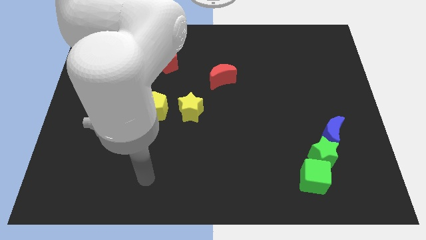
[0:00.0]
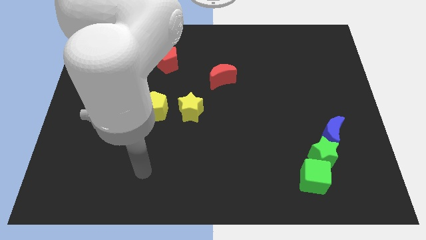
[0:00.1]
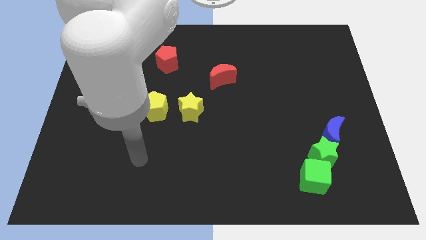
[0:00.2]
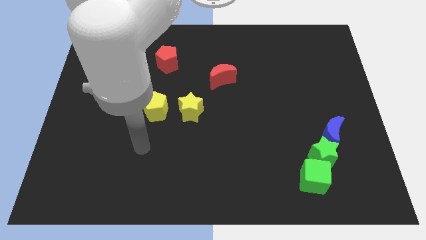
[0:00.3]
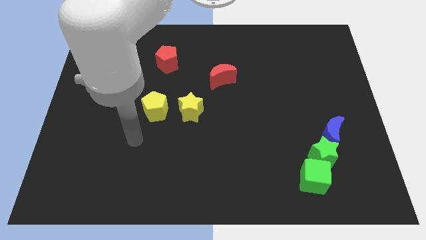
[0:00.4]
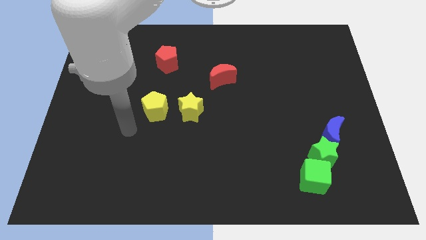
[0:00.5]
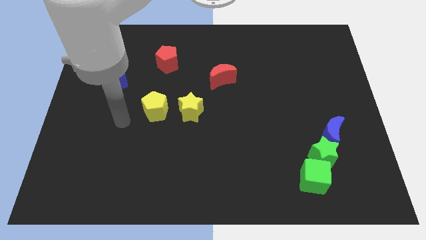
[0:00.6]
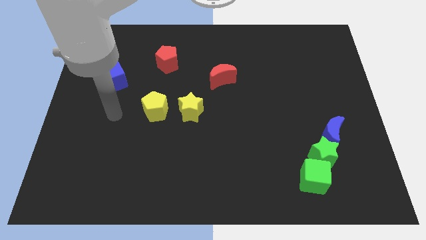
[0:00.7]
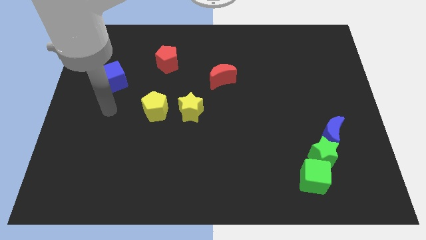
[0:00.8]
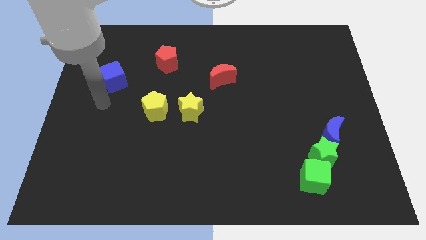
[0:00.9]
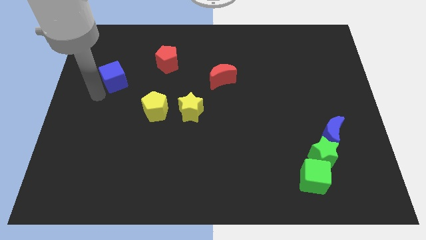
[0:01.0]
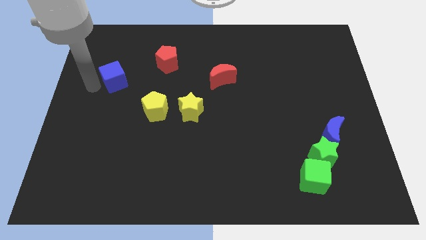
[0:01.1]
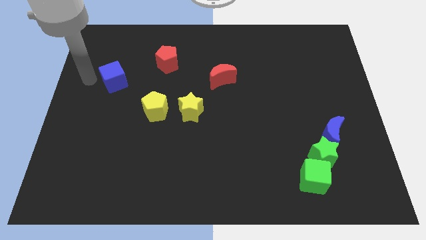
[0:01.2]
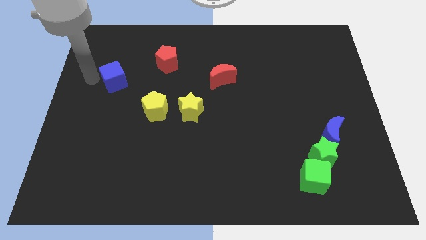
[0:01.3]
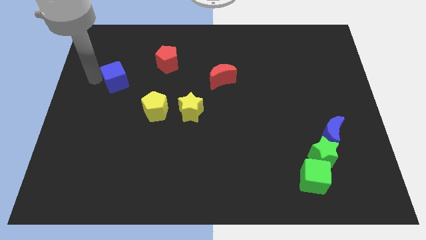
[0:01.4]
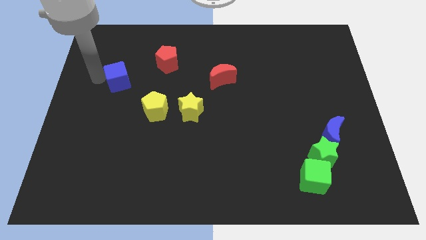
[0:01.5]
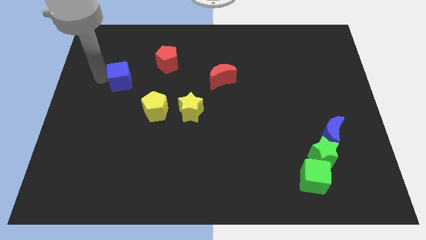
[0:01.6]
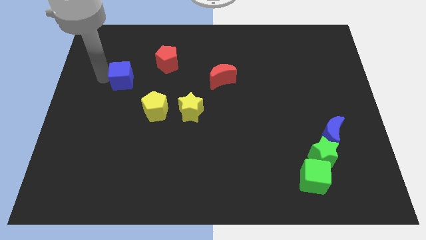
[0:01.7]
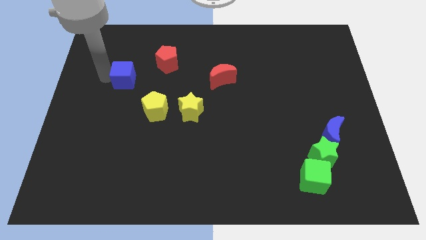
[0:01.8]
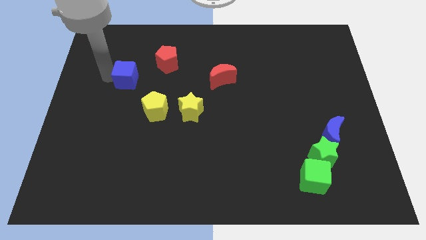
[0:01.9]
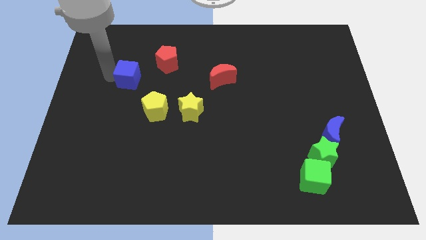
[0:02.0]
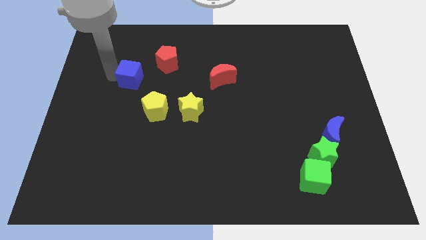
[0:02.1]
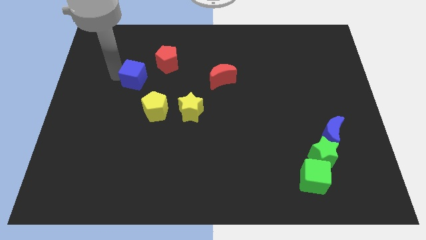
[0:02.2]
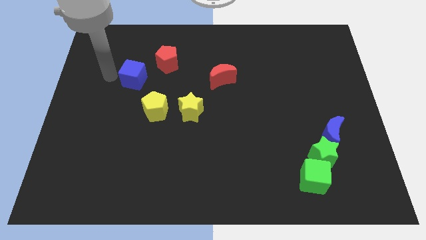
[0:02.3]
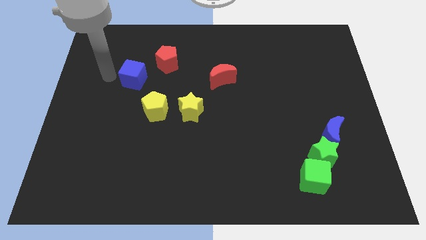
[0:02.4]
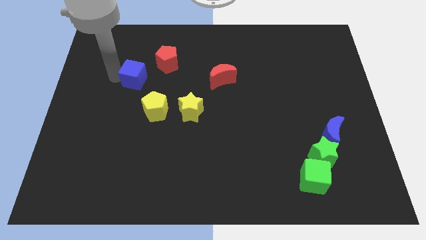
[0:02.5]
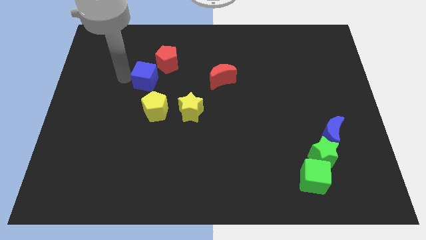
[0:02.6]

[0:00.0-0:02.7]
slide the blue cube a little to the right

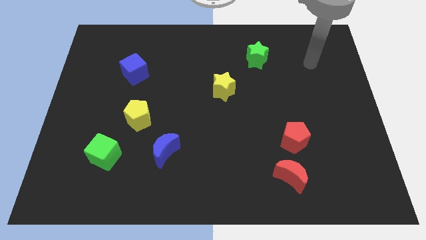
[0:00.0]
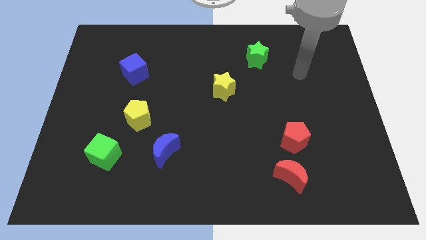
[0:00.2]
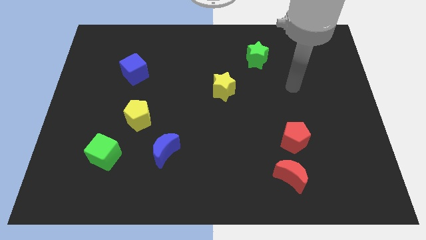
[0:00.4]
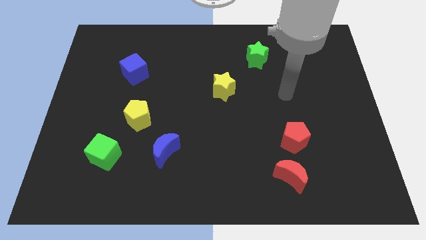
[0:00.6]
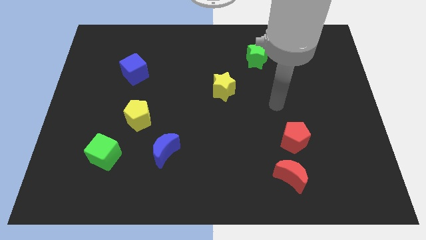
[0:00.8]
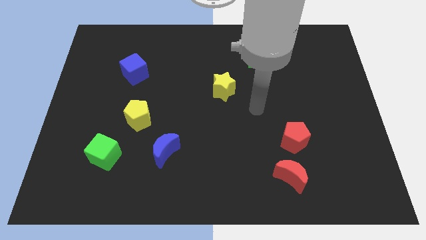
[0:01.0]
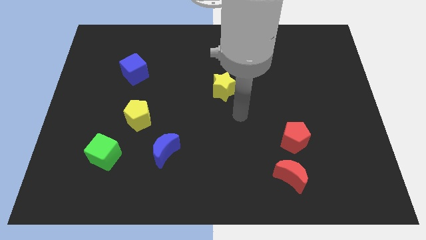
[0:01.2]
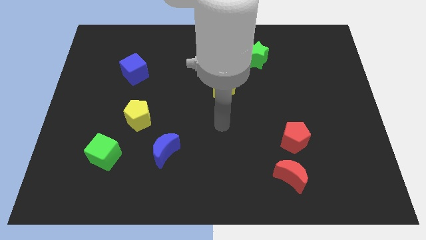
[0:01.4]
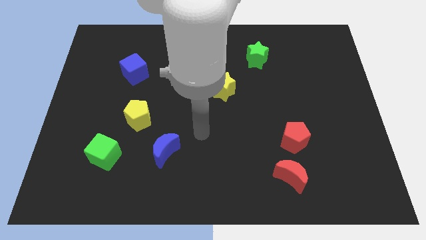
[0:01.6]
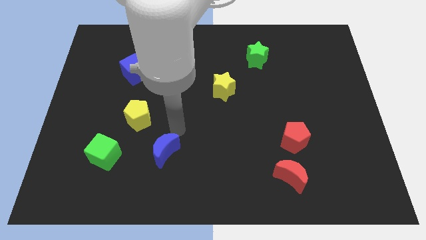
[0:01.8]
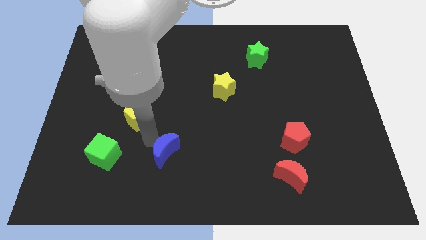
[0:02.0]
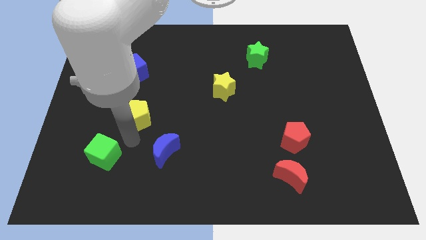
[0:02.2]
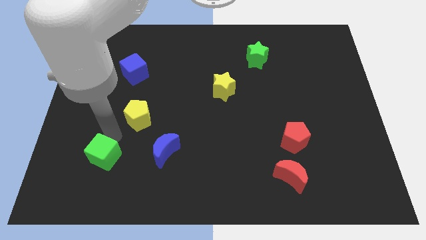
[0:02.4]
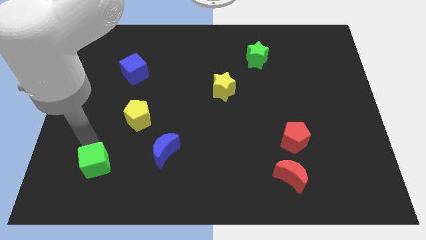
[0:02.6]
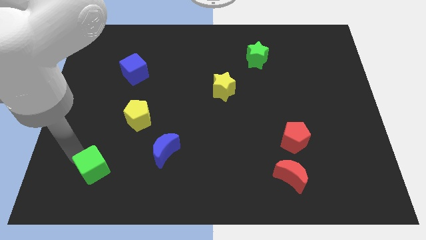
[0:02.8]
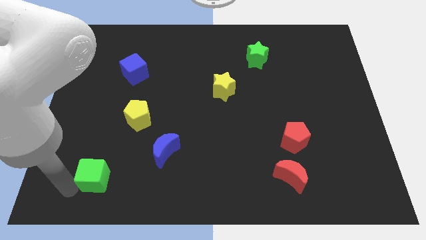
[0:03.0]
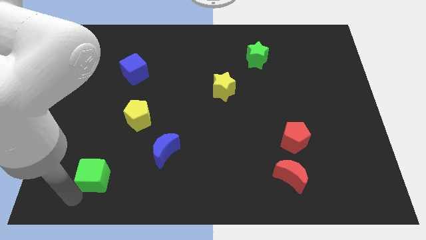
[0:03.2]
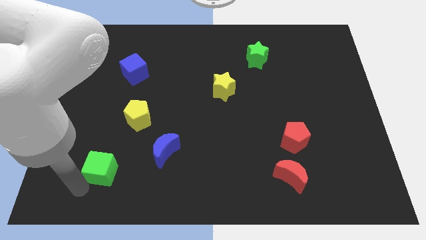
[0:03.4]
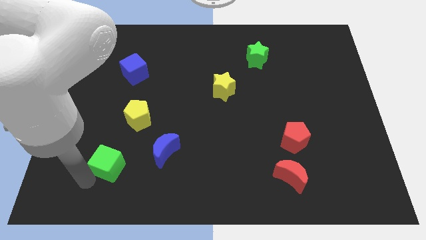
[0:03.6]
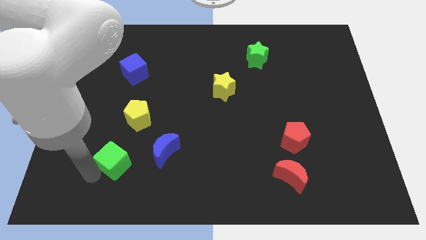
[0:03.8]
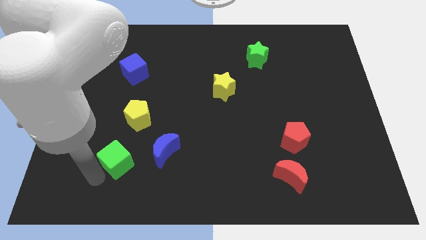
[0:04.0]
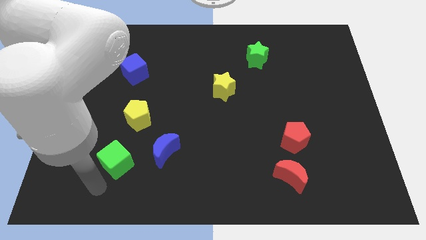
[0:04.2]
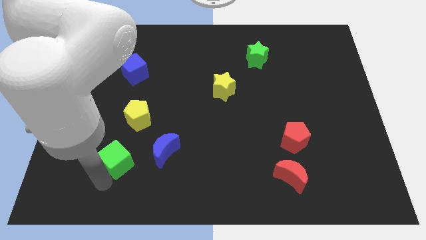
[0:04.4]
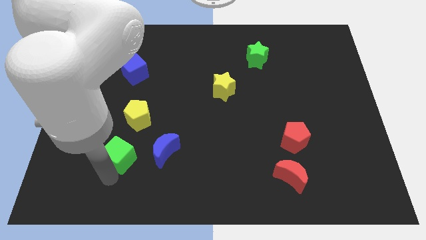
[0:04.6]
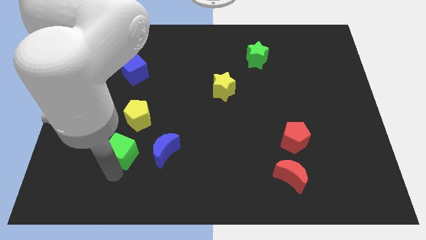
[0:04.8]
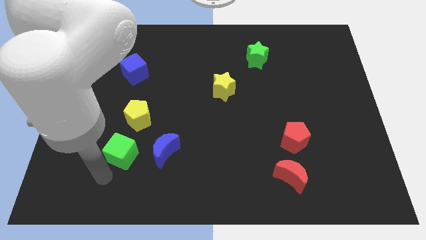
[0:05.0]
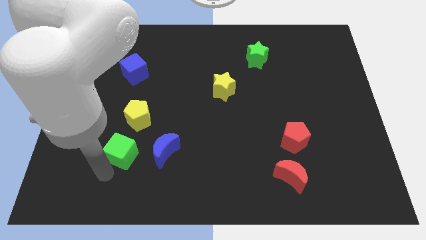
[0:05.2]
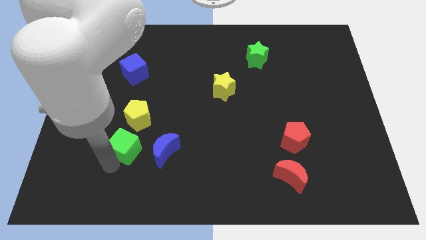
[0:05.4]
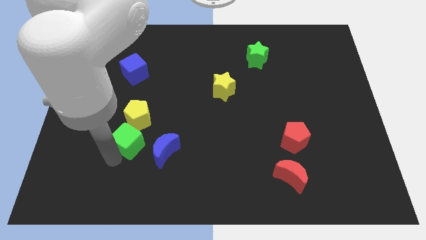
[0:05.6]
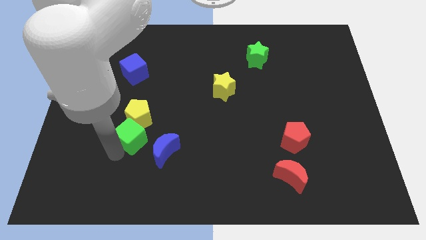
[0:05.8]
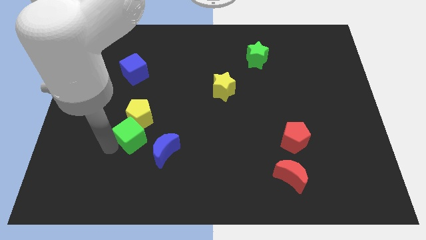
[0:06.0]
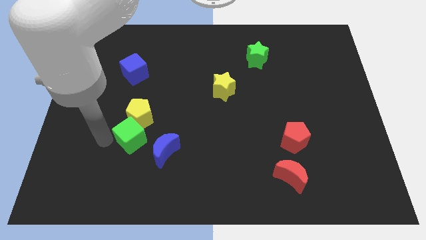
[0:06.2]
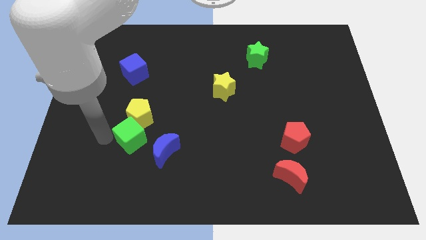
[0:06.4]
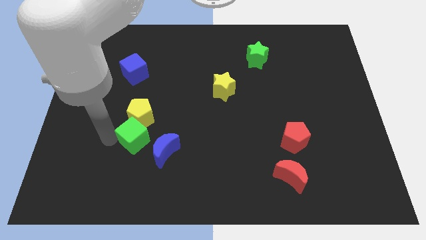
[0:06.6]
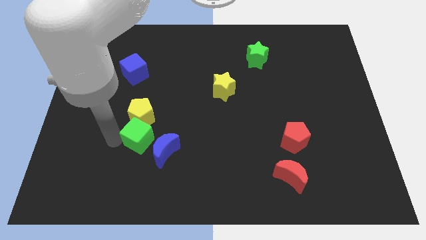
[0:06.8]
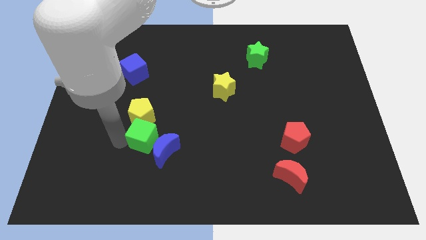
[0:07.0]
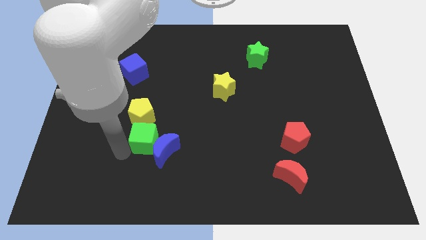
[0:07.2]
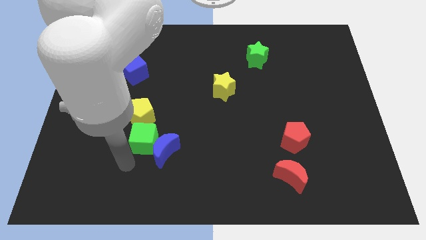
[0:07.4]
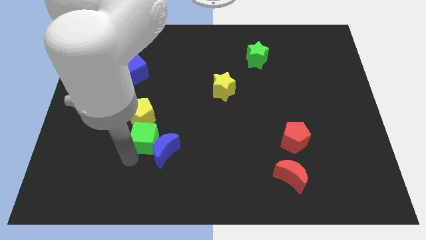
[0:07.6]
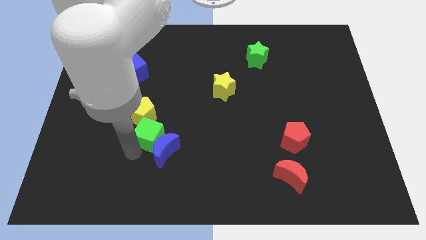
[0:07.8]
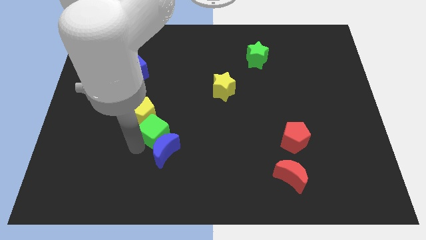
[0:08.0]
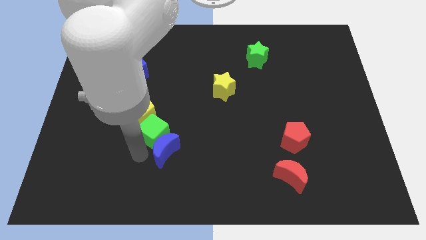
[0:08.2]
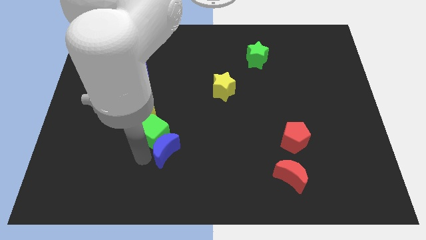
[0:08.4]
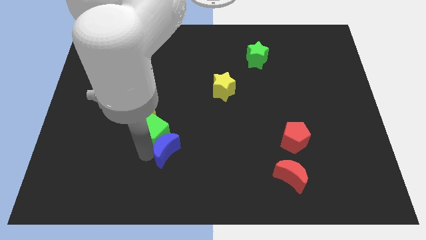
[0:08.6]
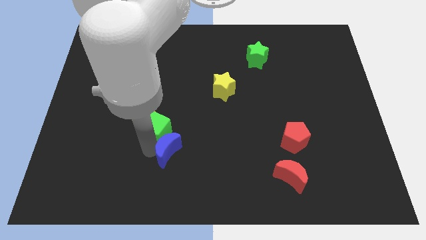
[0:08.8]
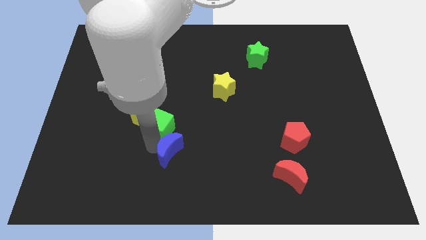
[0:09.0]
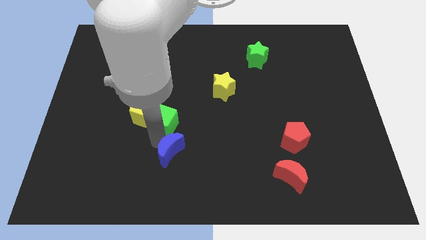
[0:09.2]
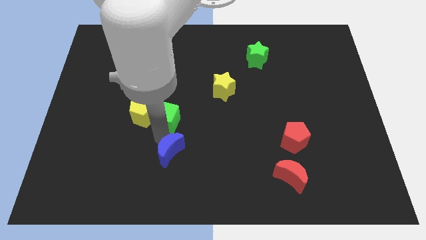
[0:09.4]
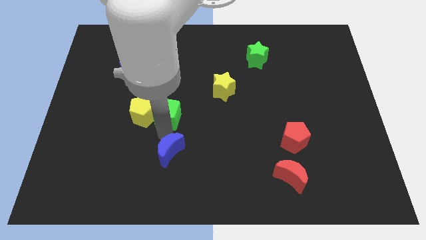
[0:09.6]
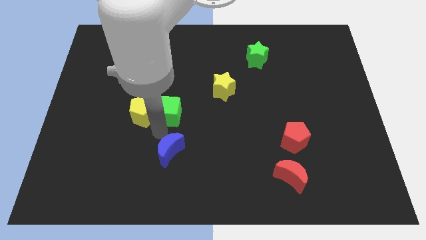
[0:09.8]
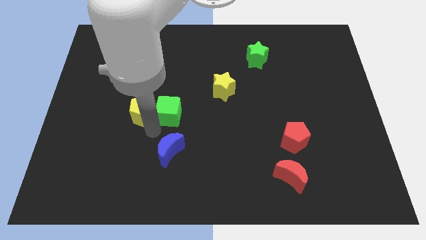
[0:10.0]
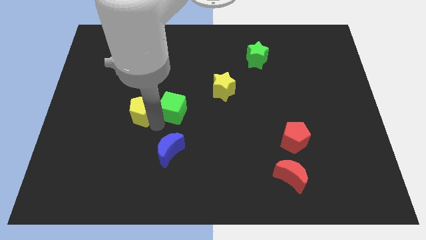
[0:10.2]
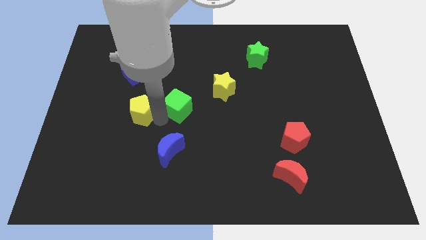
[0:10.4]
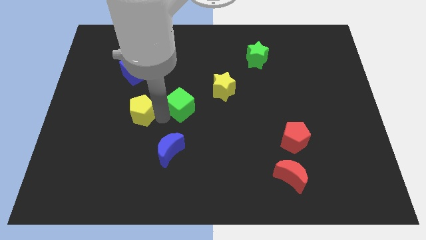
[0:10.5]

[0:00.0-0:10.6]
push the green cube up and right diagonally

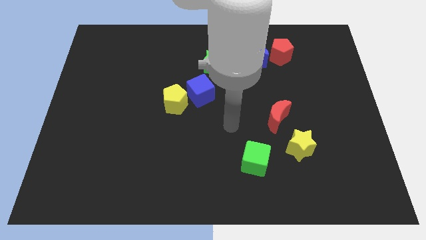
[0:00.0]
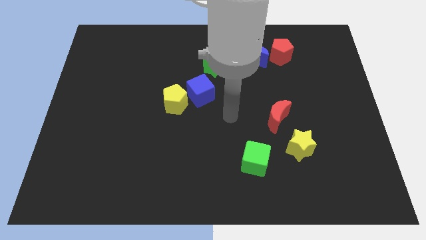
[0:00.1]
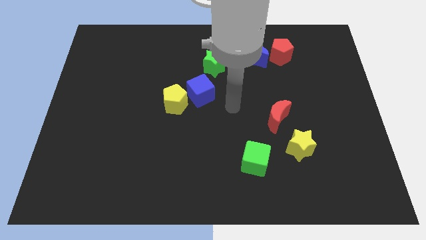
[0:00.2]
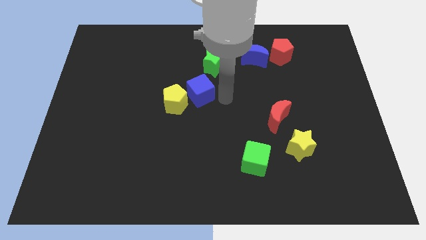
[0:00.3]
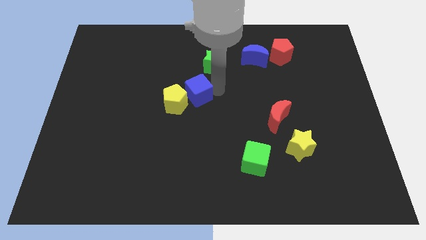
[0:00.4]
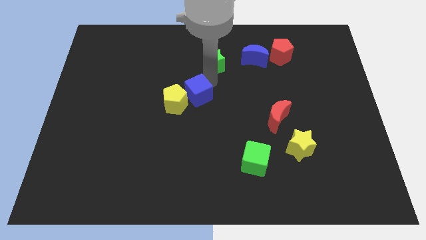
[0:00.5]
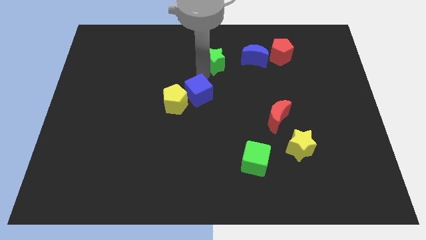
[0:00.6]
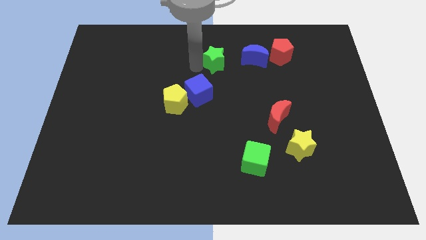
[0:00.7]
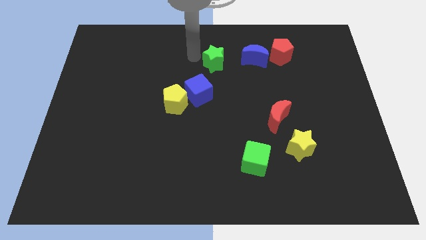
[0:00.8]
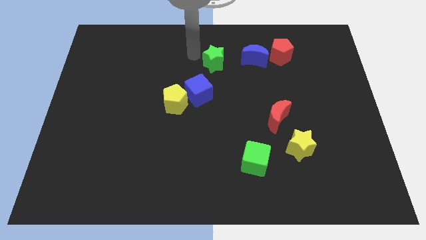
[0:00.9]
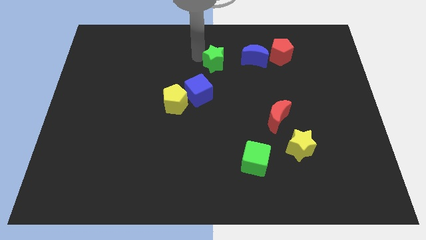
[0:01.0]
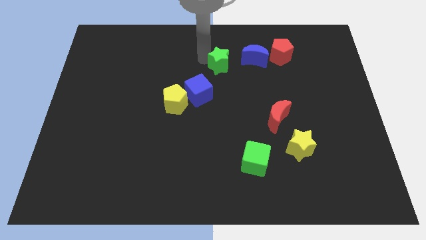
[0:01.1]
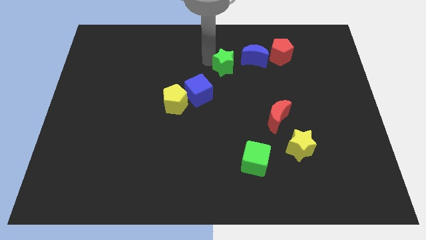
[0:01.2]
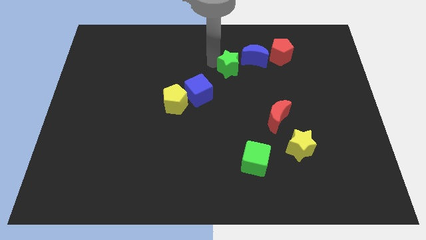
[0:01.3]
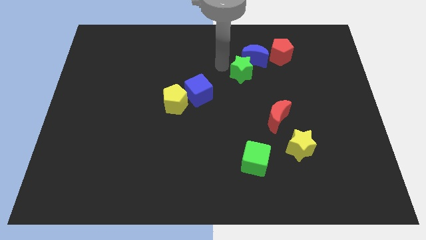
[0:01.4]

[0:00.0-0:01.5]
slide the green star a bit to the right
